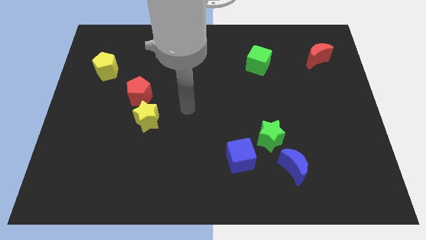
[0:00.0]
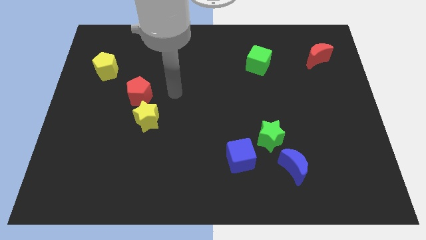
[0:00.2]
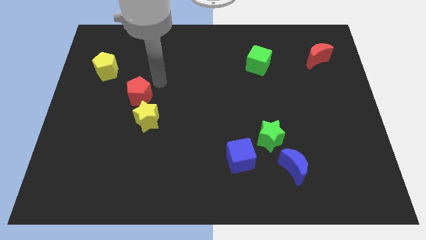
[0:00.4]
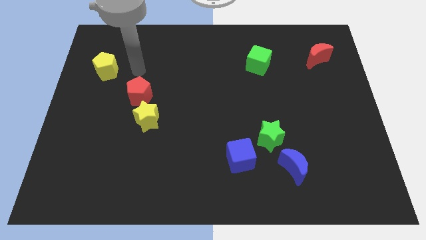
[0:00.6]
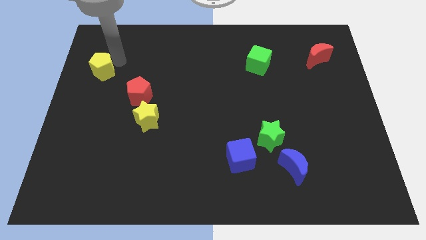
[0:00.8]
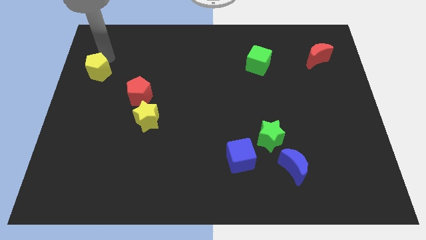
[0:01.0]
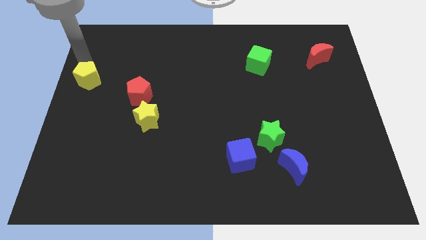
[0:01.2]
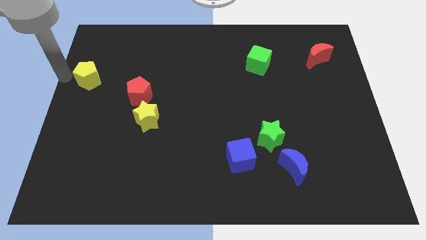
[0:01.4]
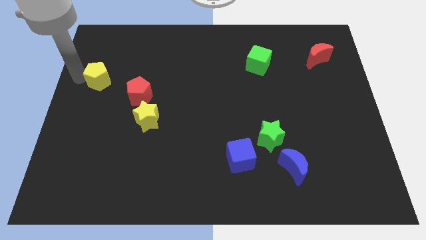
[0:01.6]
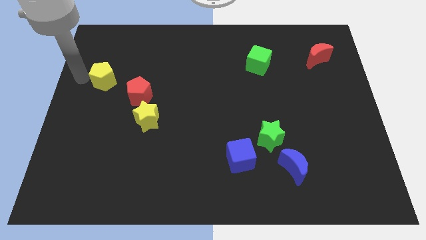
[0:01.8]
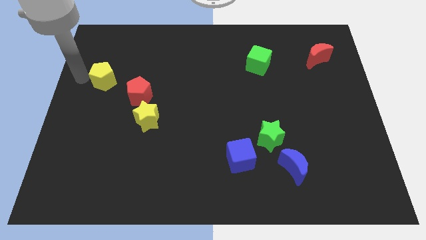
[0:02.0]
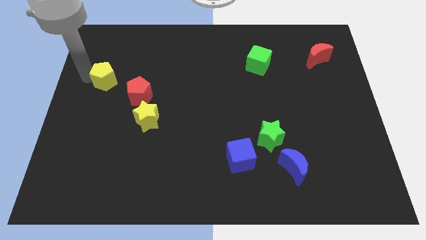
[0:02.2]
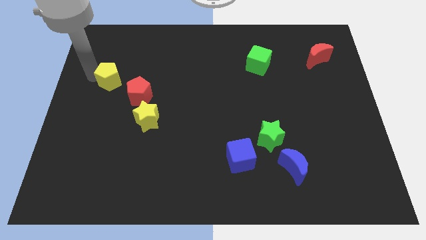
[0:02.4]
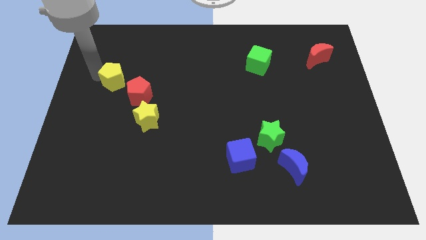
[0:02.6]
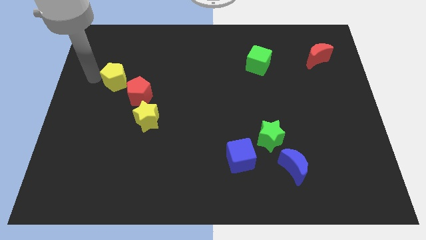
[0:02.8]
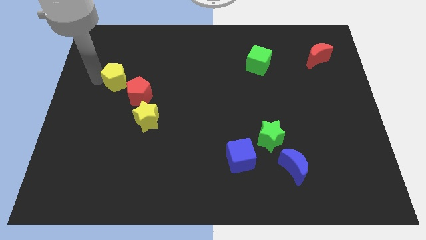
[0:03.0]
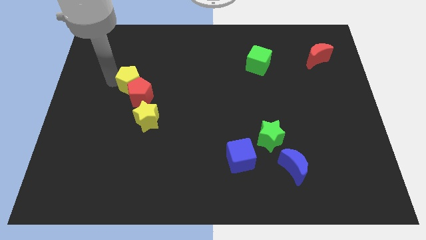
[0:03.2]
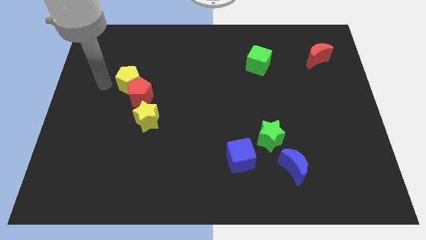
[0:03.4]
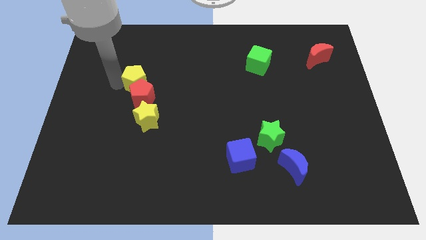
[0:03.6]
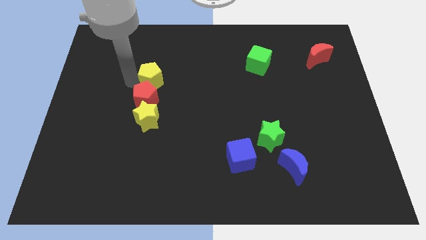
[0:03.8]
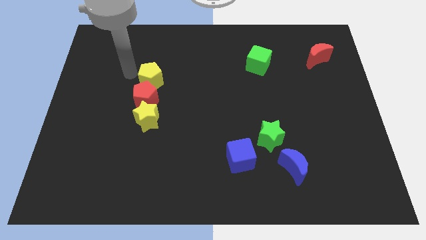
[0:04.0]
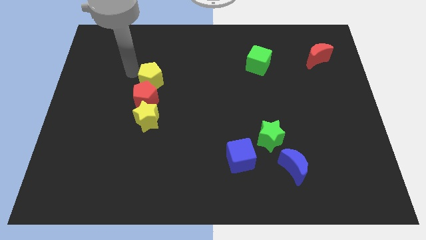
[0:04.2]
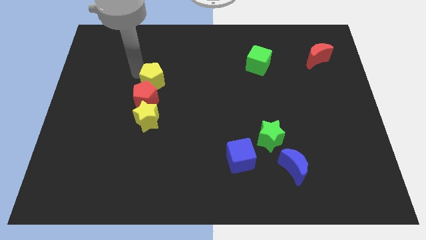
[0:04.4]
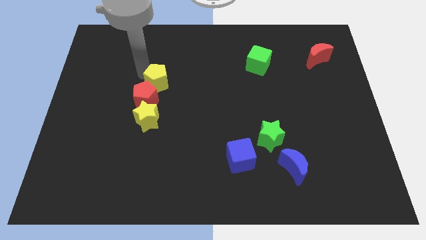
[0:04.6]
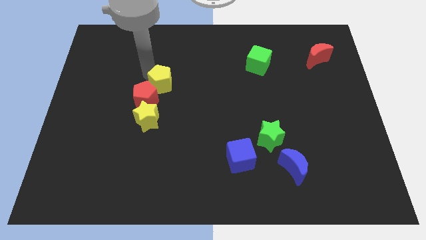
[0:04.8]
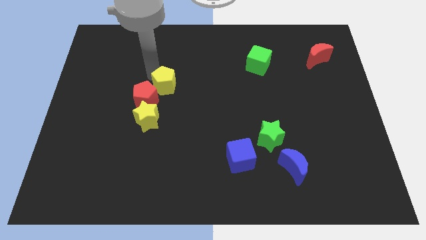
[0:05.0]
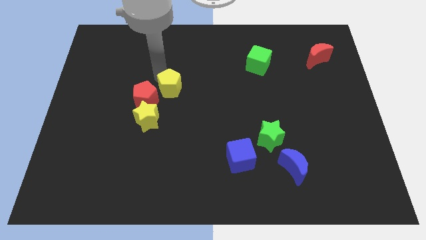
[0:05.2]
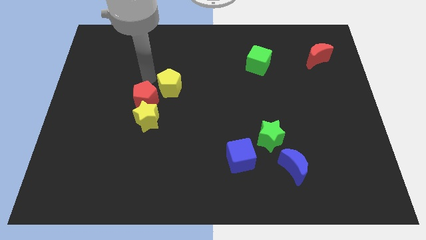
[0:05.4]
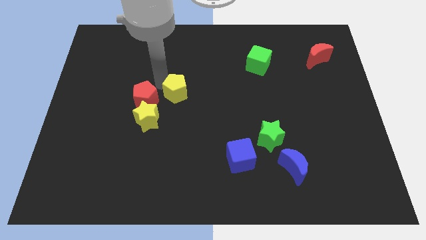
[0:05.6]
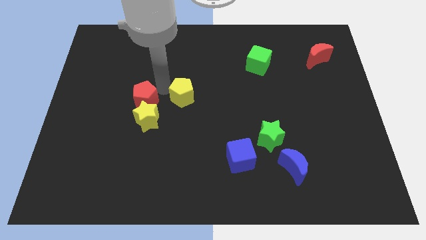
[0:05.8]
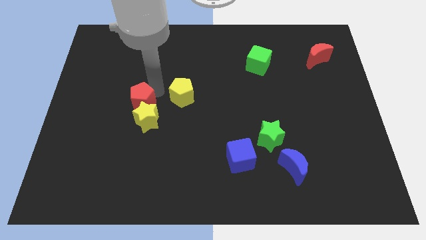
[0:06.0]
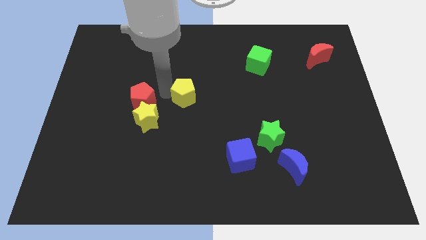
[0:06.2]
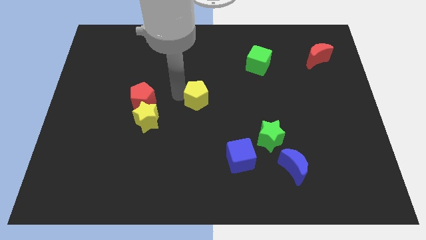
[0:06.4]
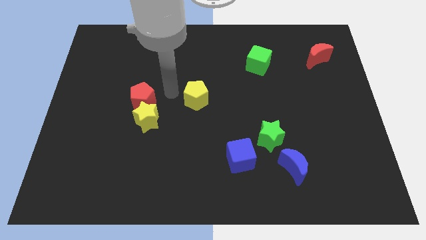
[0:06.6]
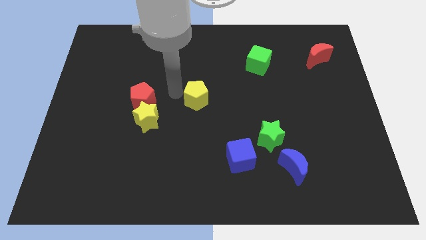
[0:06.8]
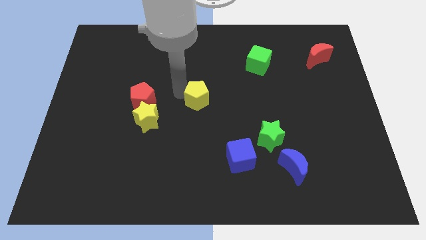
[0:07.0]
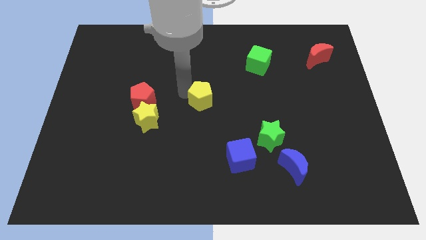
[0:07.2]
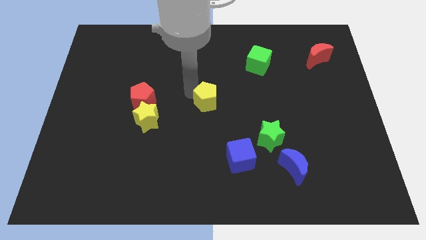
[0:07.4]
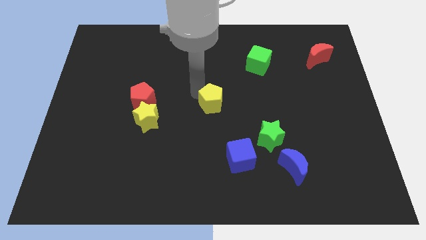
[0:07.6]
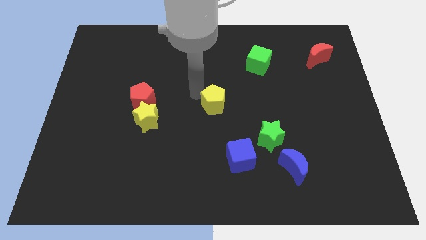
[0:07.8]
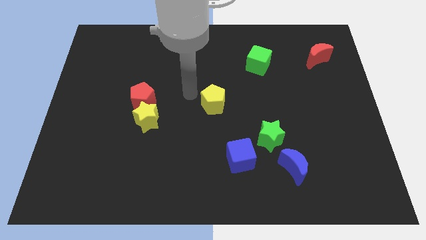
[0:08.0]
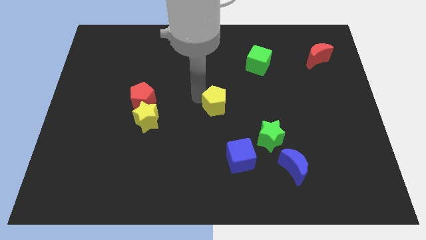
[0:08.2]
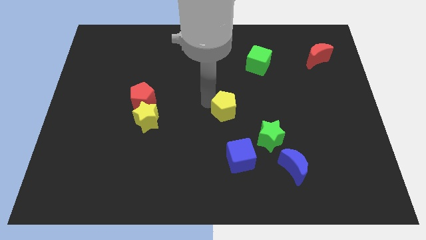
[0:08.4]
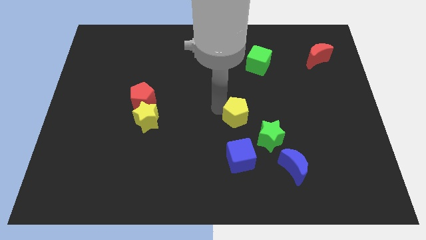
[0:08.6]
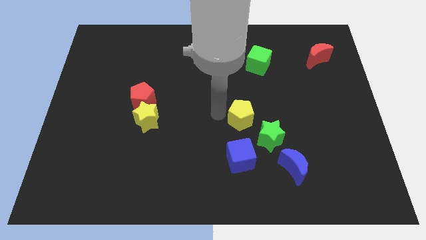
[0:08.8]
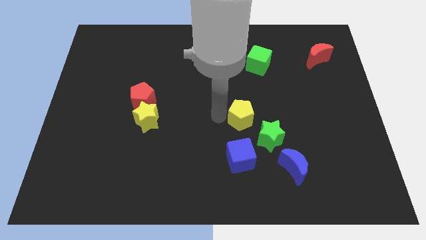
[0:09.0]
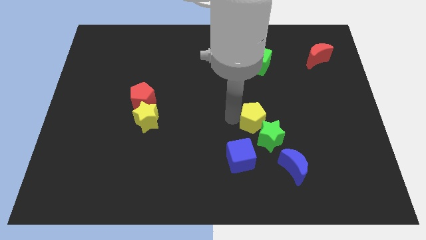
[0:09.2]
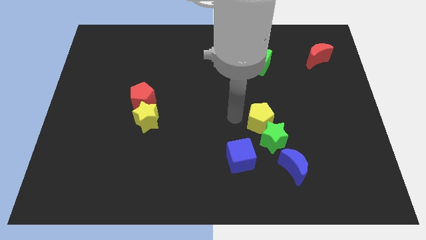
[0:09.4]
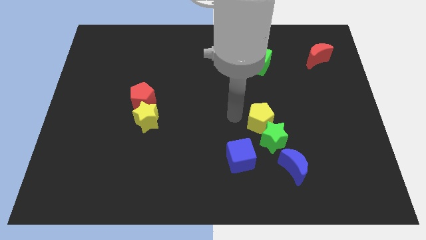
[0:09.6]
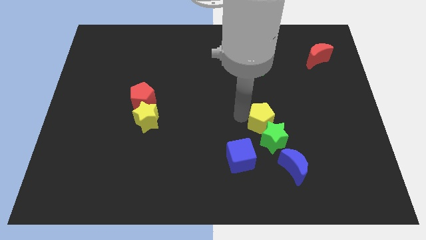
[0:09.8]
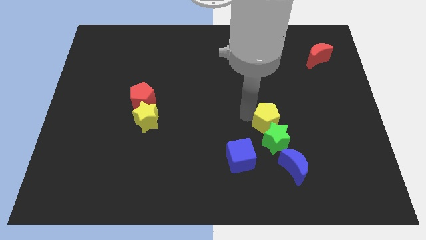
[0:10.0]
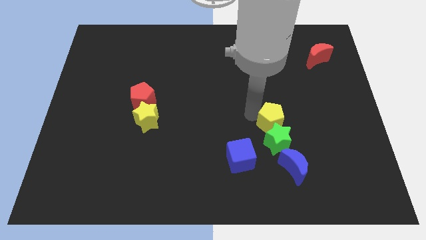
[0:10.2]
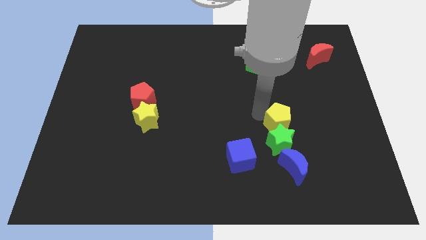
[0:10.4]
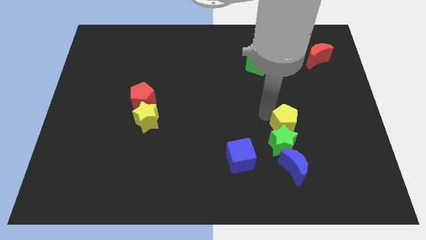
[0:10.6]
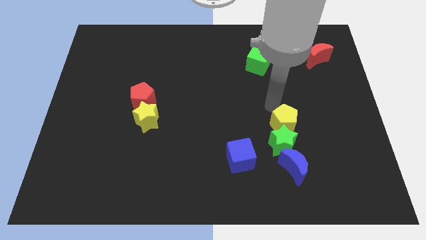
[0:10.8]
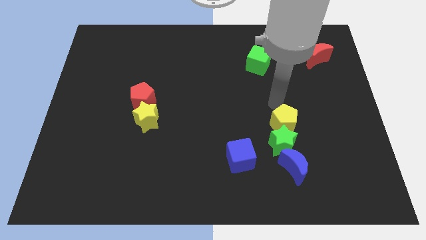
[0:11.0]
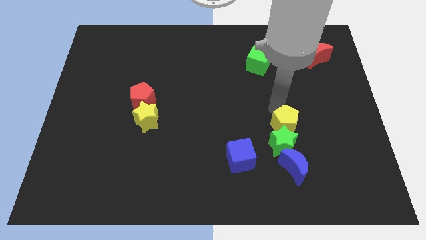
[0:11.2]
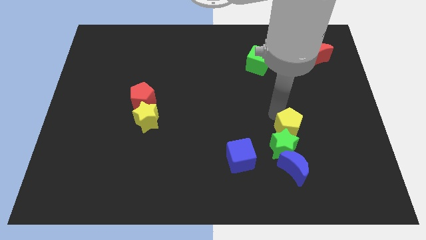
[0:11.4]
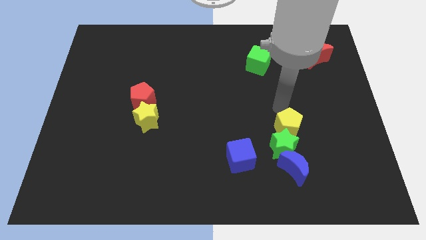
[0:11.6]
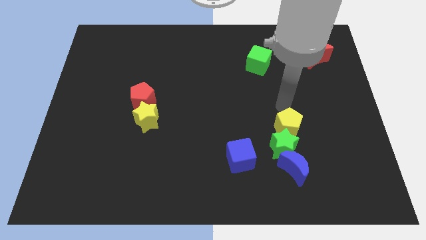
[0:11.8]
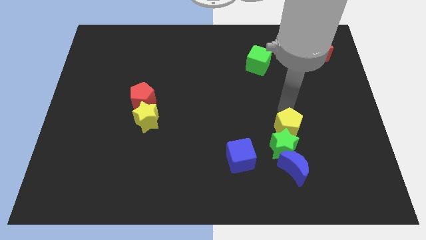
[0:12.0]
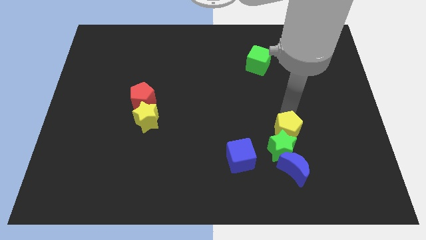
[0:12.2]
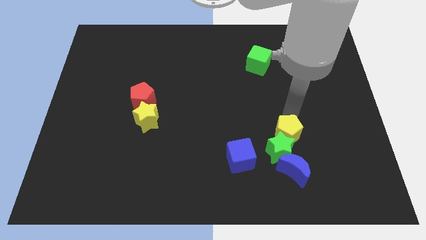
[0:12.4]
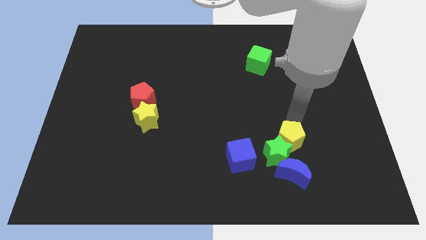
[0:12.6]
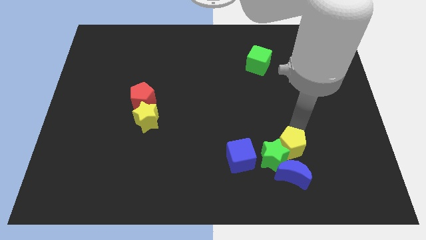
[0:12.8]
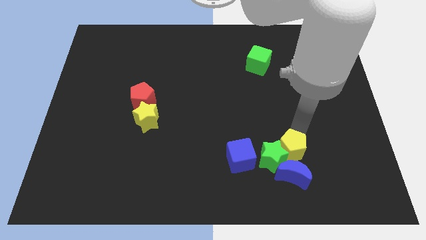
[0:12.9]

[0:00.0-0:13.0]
push the yellow pentagon to the blue moon

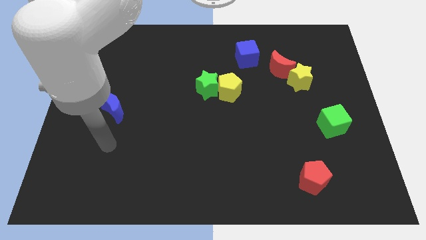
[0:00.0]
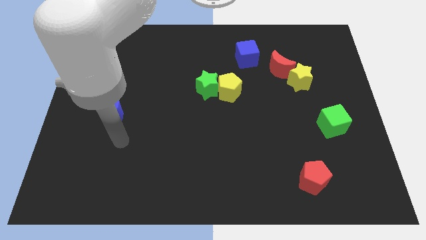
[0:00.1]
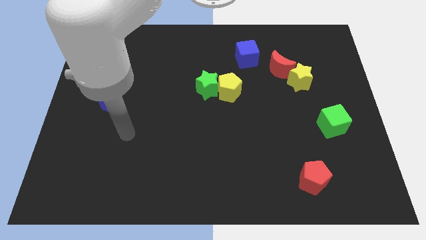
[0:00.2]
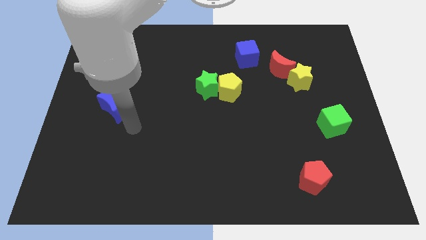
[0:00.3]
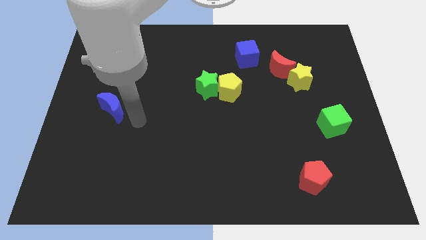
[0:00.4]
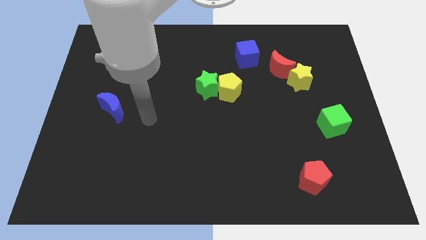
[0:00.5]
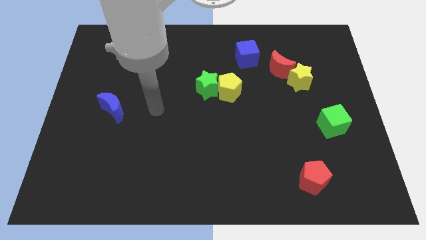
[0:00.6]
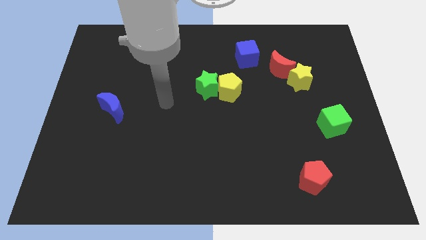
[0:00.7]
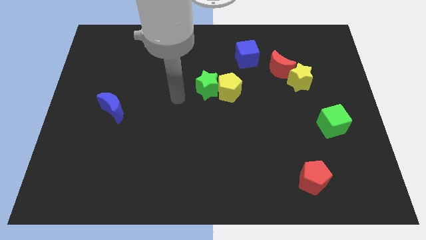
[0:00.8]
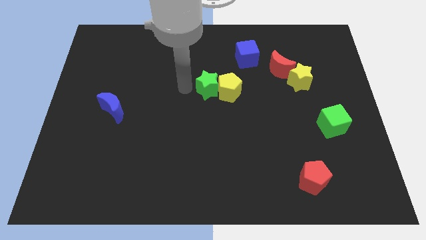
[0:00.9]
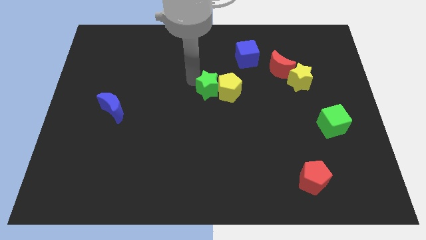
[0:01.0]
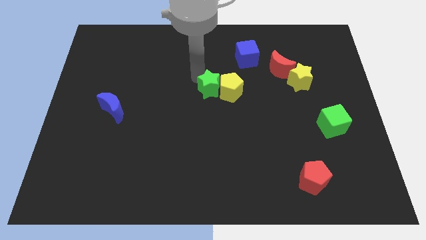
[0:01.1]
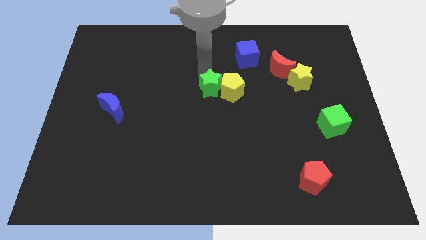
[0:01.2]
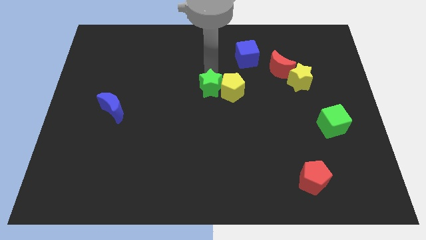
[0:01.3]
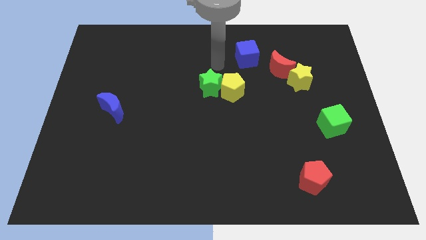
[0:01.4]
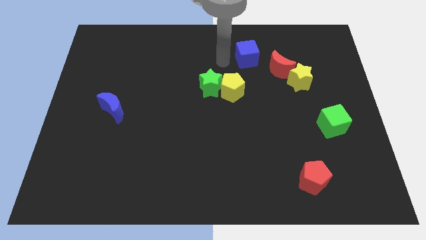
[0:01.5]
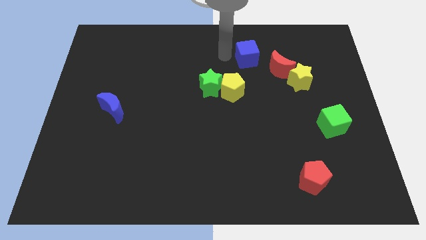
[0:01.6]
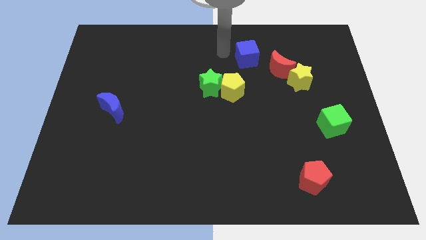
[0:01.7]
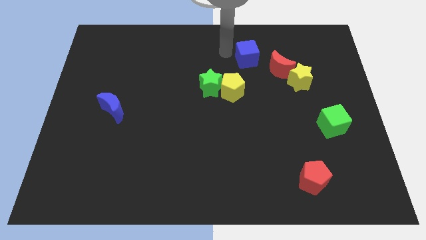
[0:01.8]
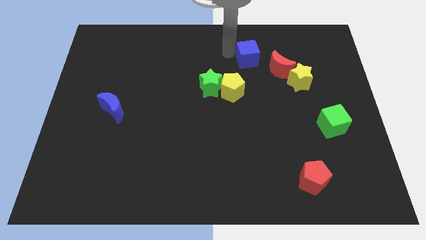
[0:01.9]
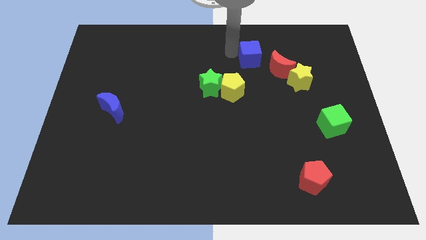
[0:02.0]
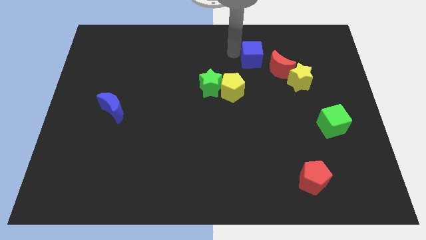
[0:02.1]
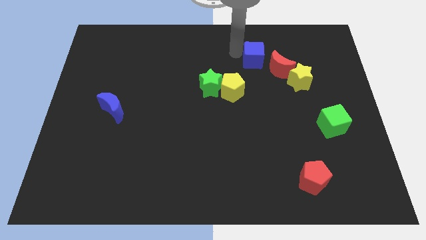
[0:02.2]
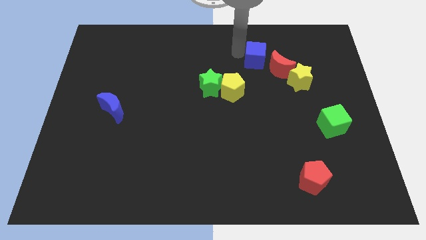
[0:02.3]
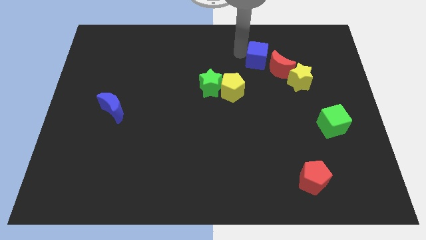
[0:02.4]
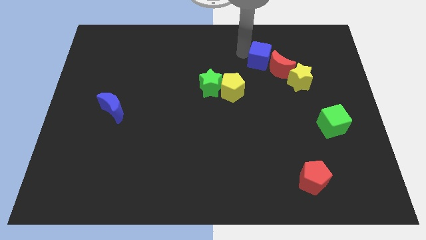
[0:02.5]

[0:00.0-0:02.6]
slide the blue cube to the red moon
